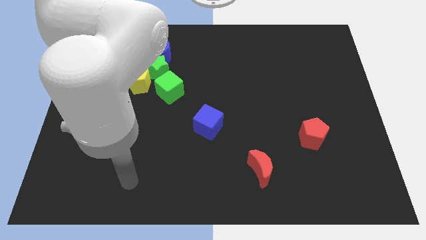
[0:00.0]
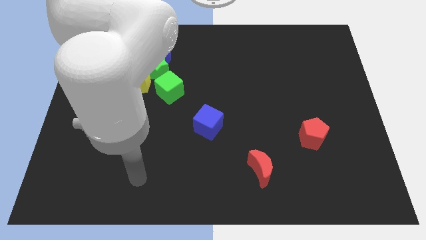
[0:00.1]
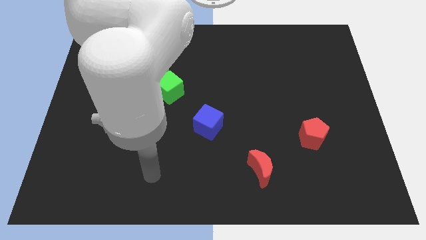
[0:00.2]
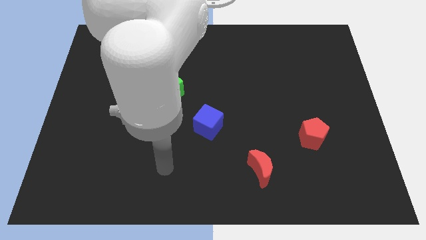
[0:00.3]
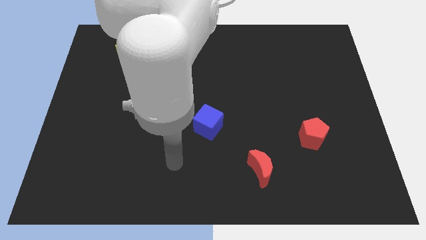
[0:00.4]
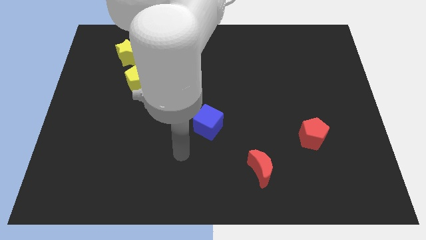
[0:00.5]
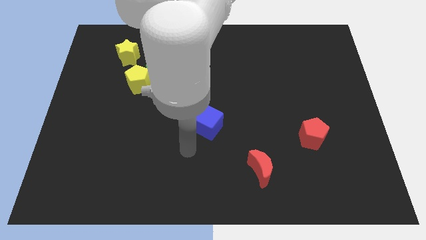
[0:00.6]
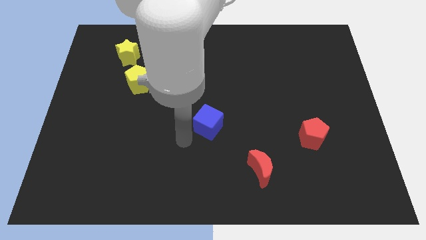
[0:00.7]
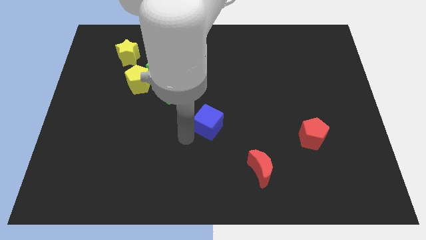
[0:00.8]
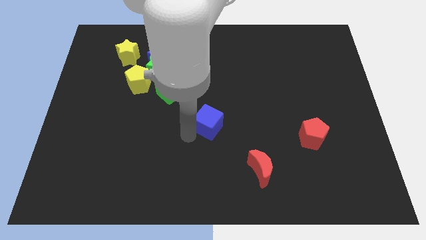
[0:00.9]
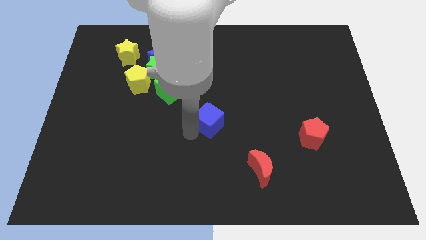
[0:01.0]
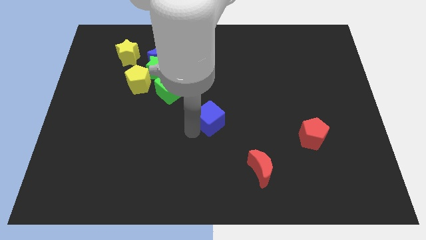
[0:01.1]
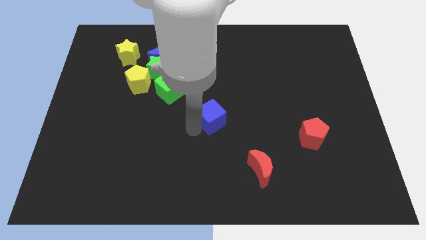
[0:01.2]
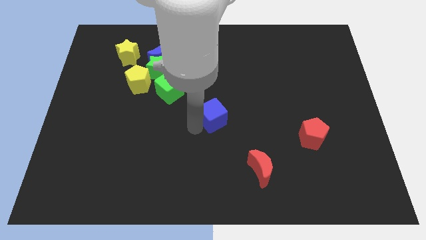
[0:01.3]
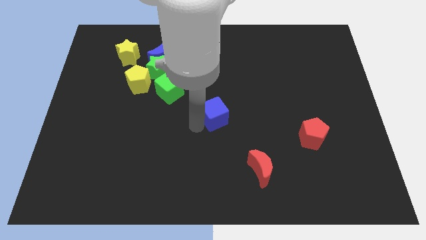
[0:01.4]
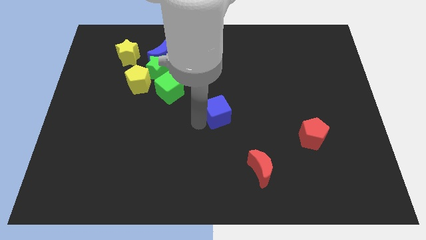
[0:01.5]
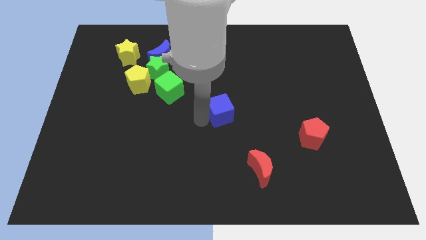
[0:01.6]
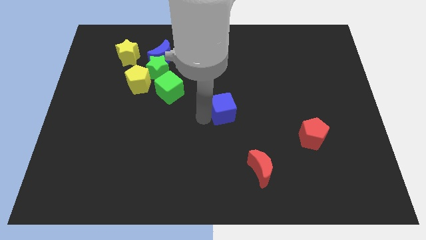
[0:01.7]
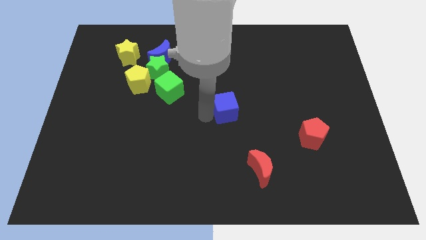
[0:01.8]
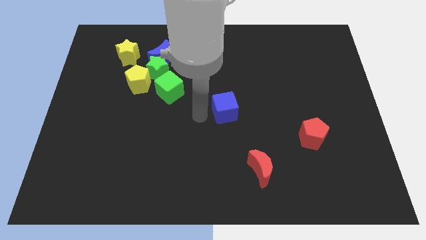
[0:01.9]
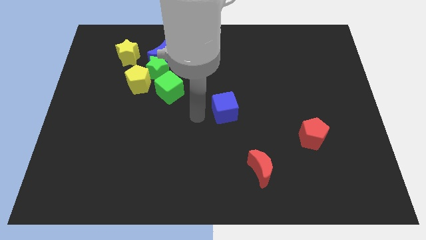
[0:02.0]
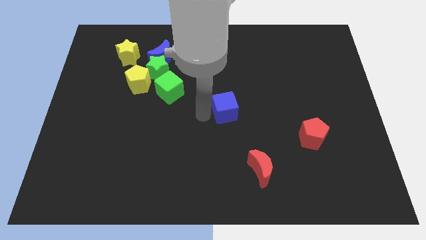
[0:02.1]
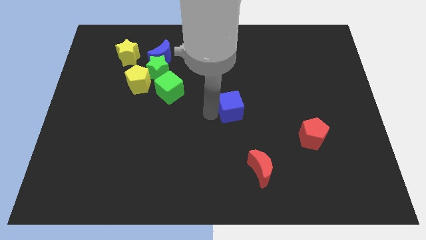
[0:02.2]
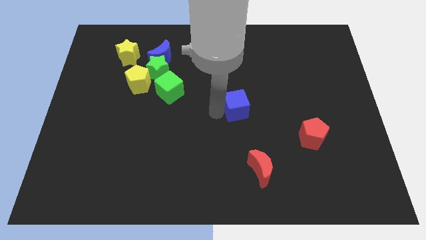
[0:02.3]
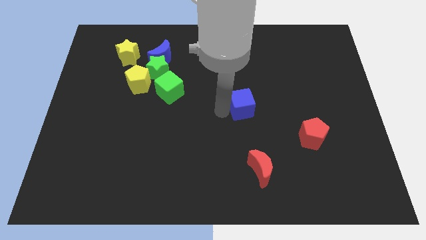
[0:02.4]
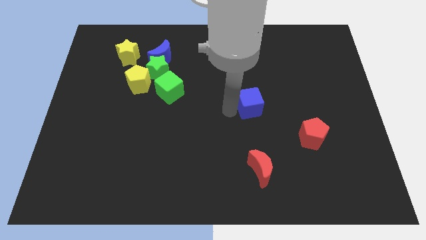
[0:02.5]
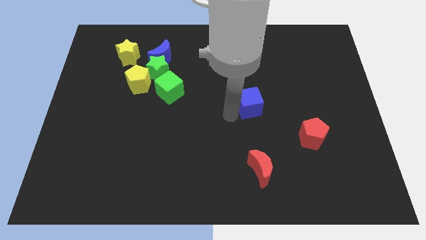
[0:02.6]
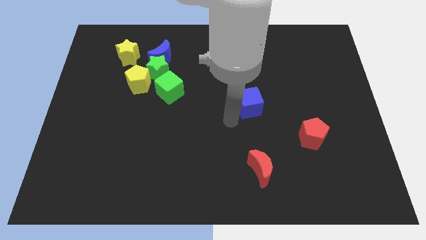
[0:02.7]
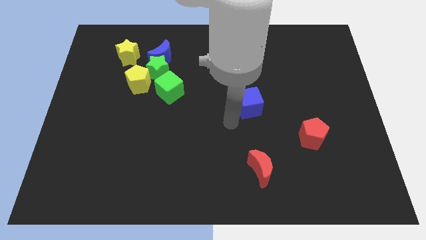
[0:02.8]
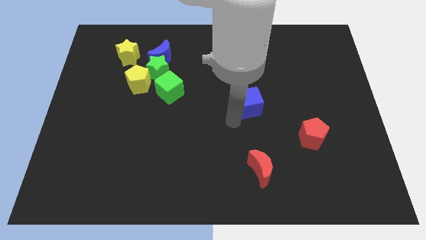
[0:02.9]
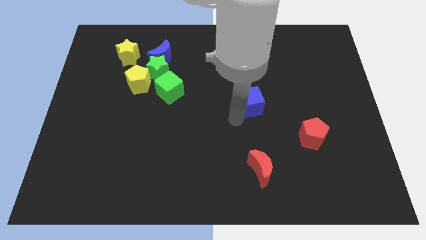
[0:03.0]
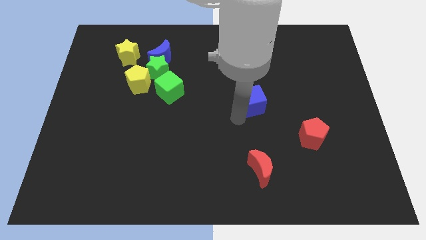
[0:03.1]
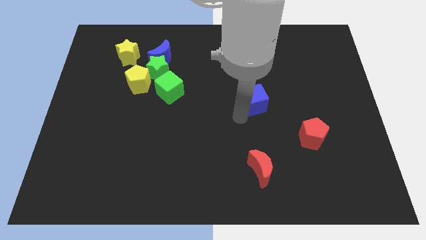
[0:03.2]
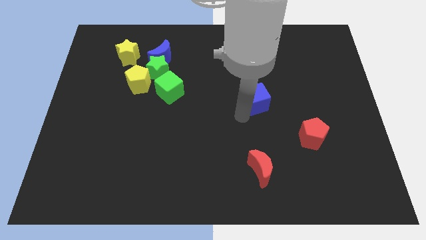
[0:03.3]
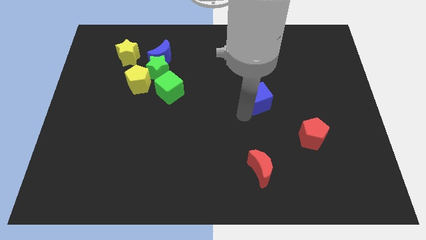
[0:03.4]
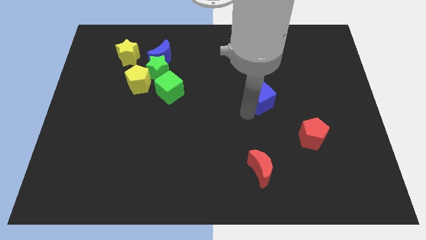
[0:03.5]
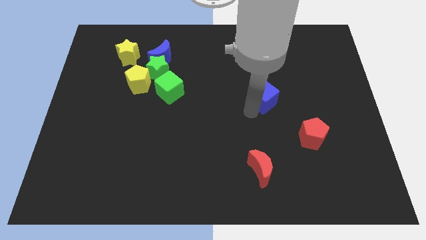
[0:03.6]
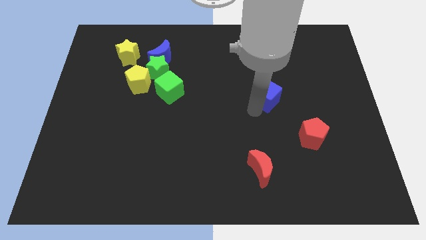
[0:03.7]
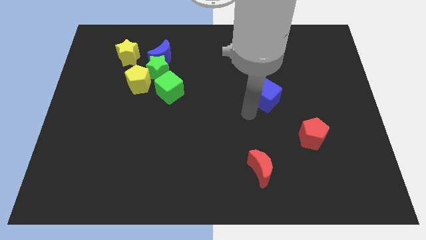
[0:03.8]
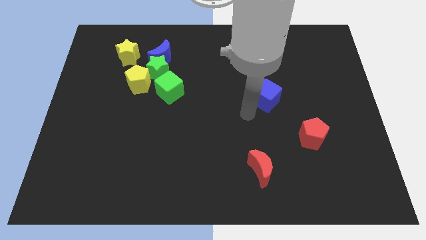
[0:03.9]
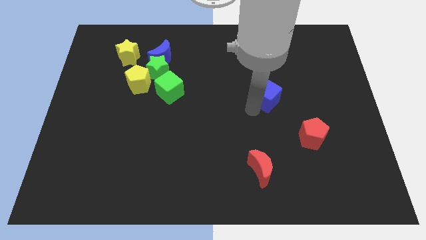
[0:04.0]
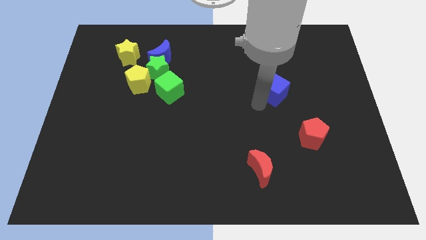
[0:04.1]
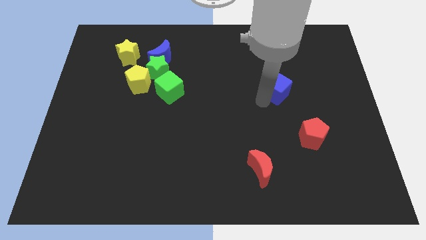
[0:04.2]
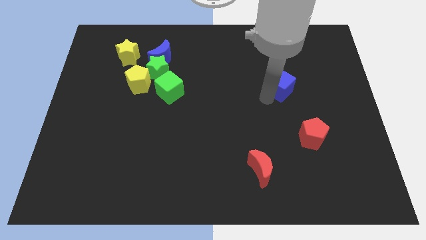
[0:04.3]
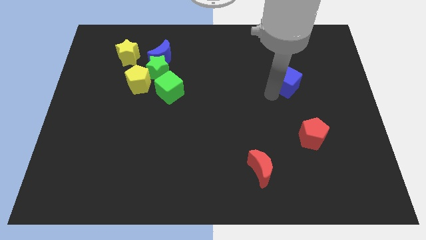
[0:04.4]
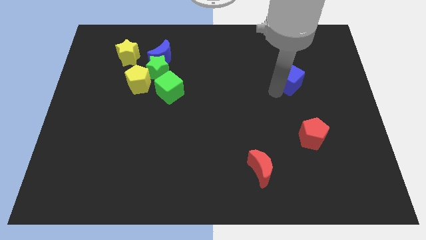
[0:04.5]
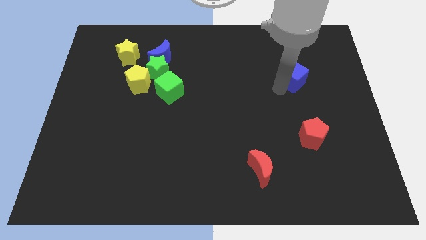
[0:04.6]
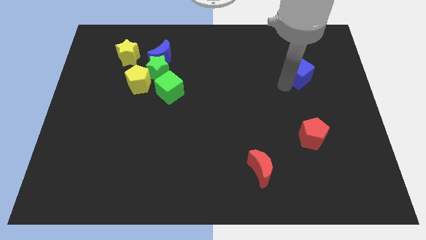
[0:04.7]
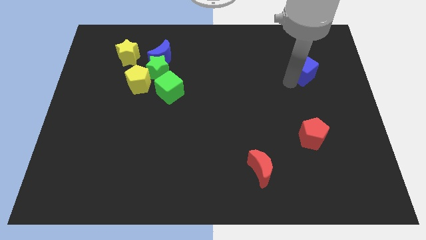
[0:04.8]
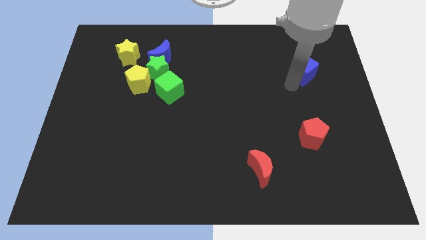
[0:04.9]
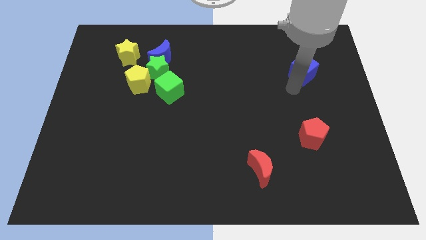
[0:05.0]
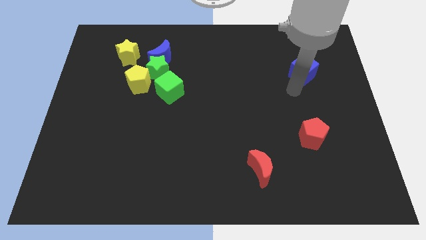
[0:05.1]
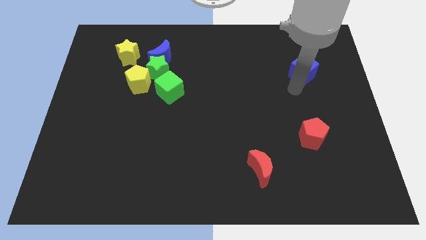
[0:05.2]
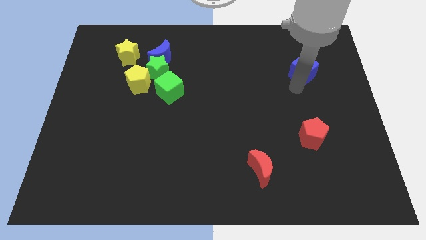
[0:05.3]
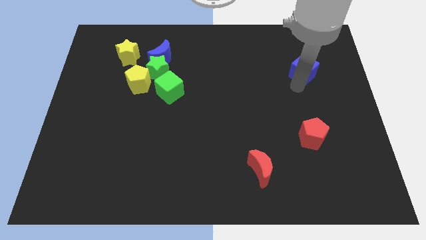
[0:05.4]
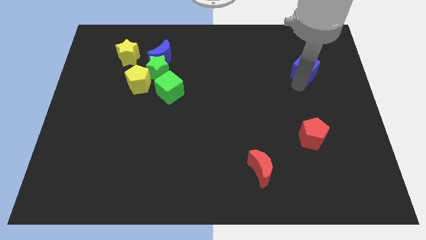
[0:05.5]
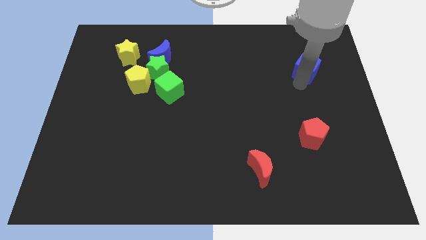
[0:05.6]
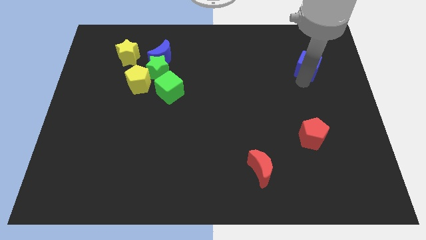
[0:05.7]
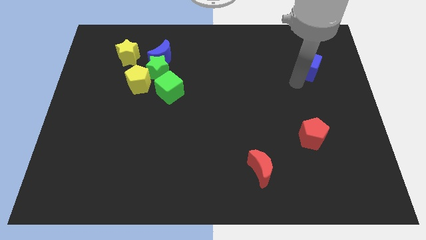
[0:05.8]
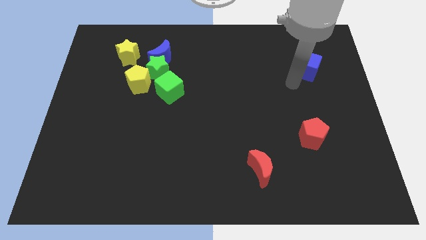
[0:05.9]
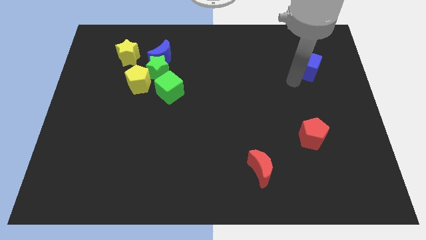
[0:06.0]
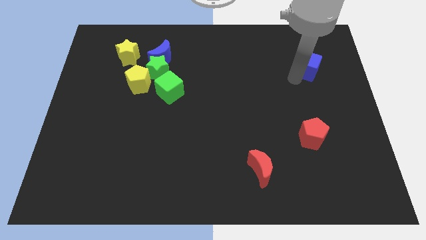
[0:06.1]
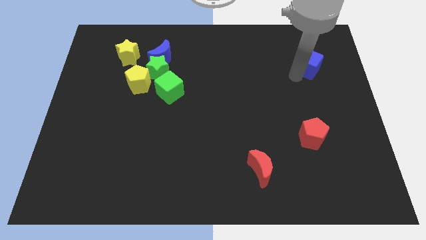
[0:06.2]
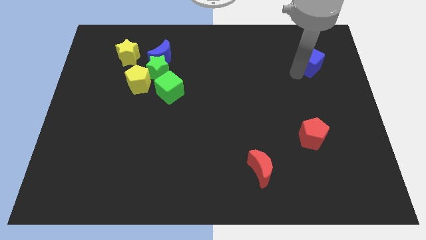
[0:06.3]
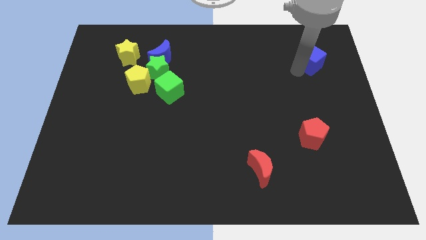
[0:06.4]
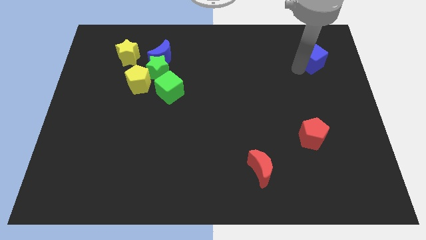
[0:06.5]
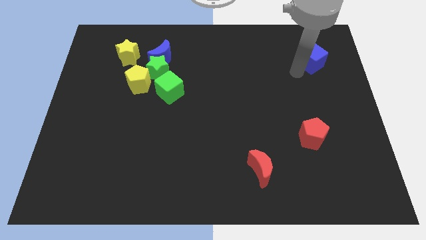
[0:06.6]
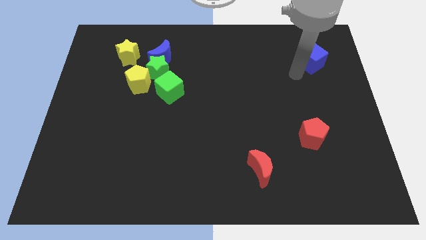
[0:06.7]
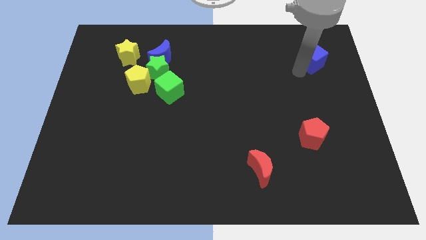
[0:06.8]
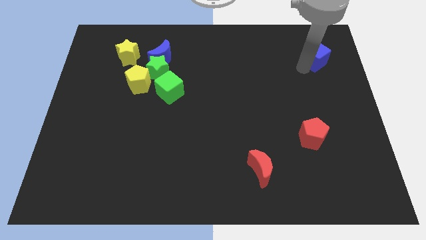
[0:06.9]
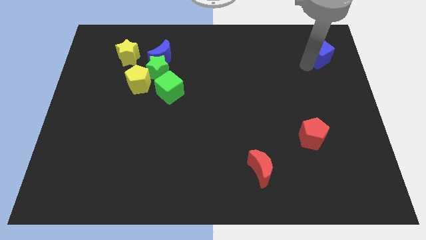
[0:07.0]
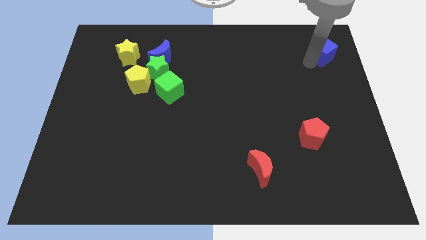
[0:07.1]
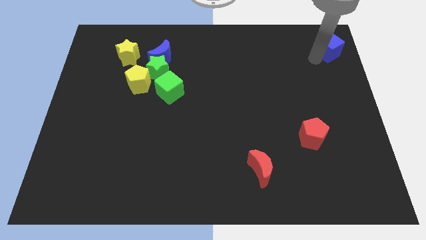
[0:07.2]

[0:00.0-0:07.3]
push the blue cube to the top right of the board
